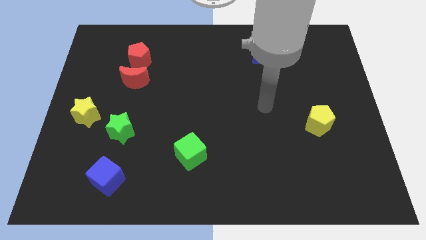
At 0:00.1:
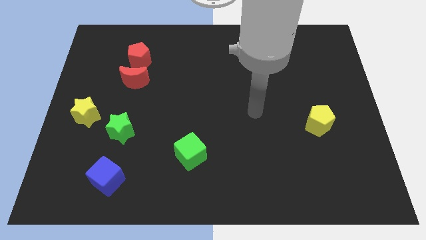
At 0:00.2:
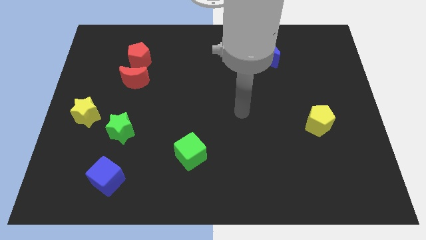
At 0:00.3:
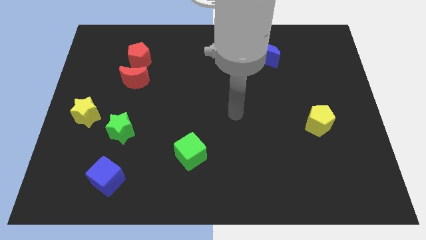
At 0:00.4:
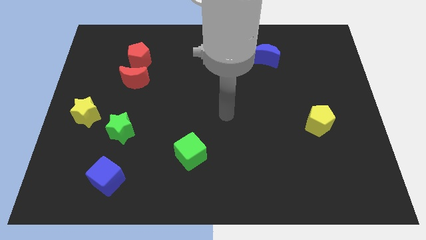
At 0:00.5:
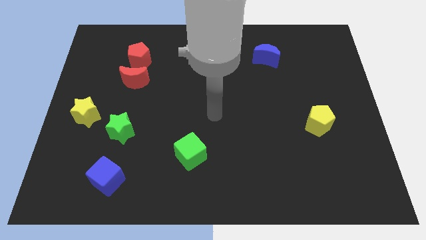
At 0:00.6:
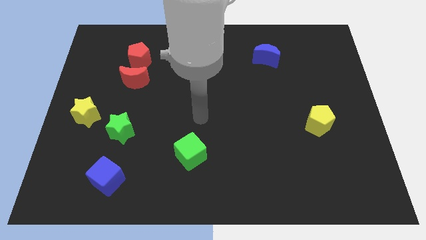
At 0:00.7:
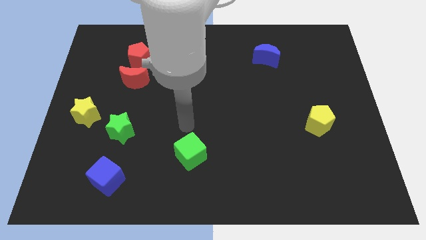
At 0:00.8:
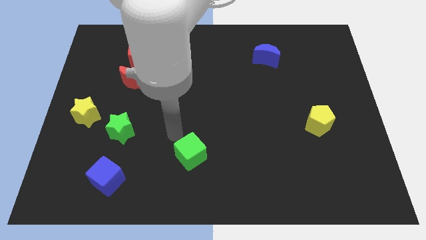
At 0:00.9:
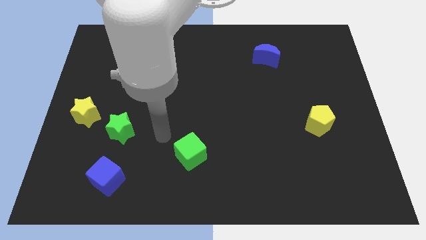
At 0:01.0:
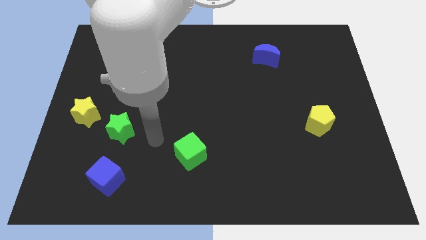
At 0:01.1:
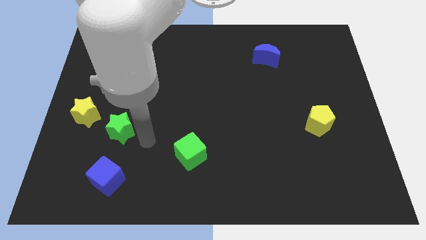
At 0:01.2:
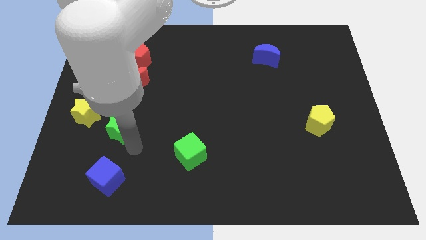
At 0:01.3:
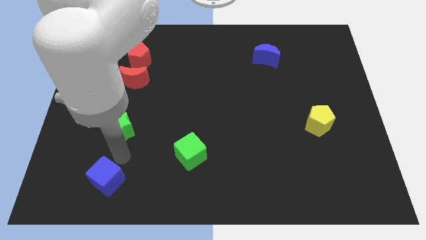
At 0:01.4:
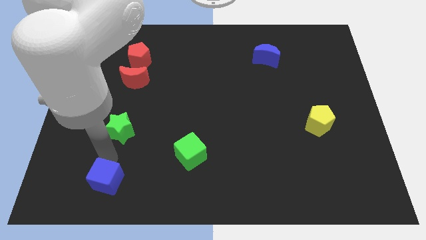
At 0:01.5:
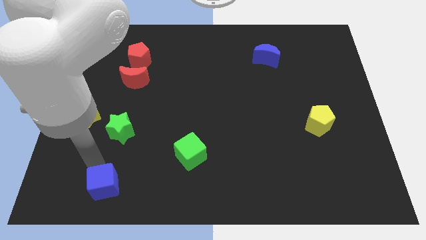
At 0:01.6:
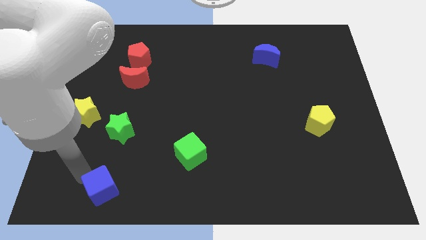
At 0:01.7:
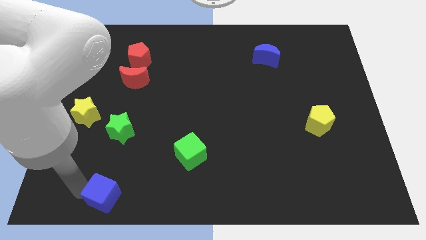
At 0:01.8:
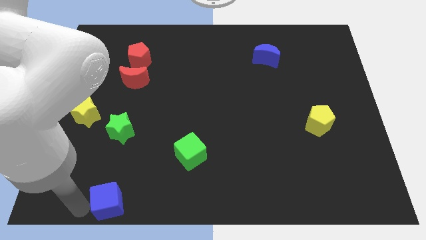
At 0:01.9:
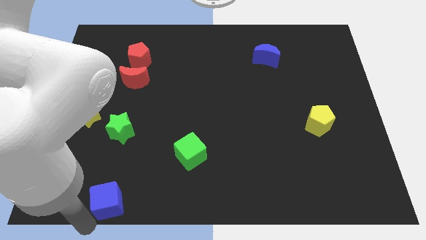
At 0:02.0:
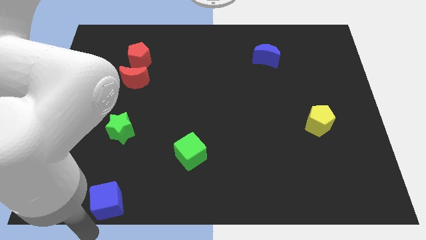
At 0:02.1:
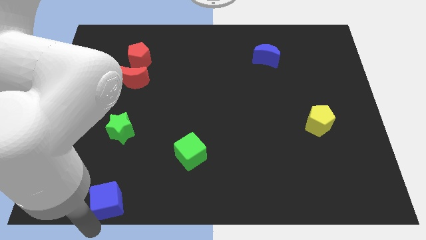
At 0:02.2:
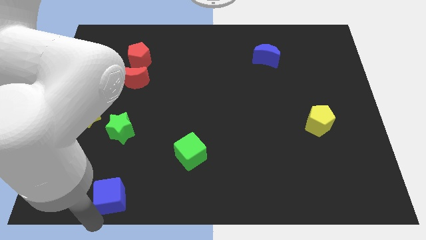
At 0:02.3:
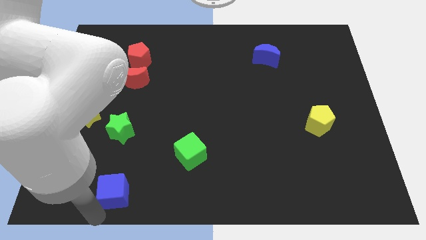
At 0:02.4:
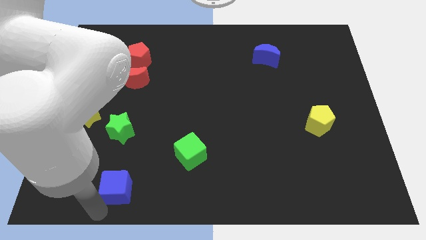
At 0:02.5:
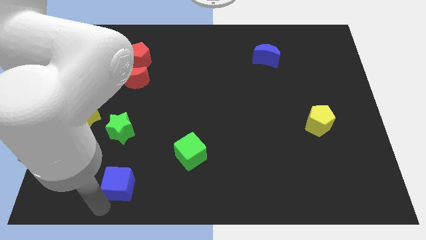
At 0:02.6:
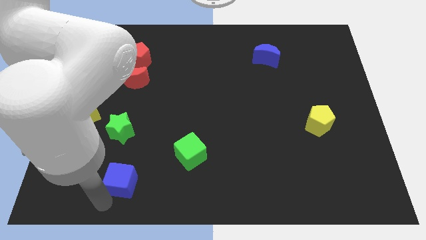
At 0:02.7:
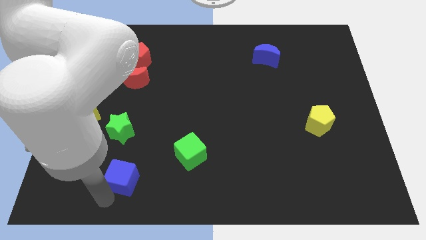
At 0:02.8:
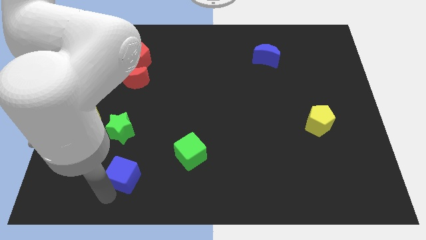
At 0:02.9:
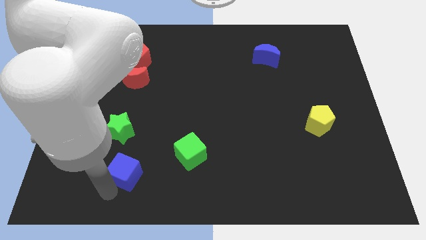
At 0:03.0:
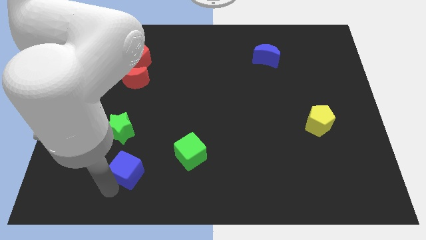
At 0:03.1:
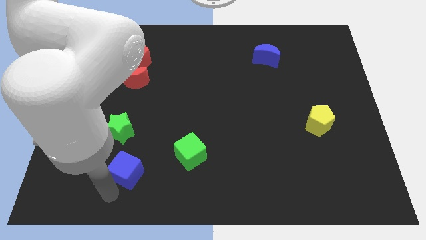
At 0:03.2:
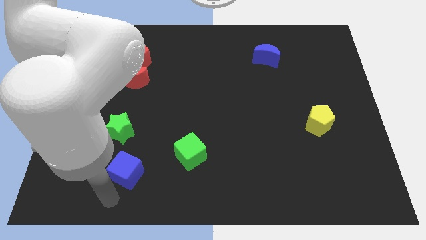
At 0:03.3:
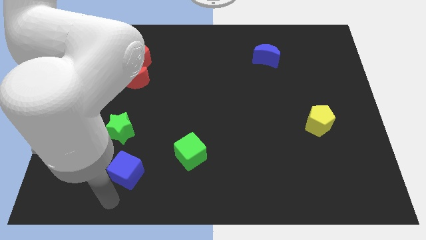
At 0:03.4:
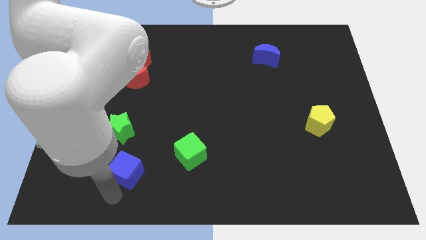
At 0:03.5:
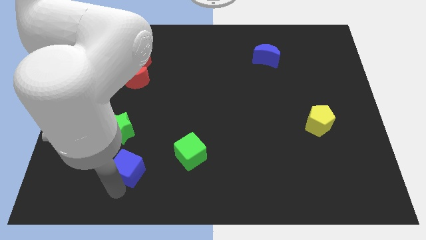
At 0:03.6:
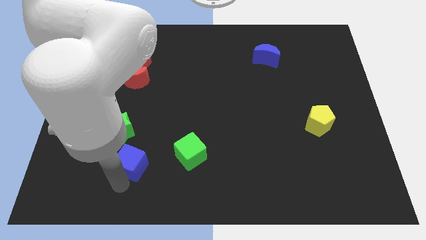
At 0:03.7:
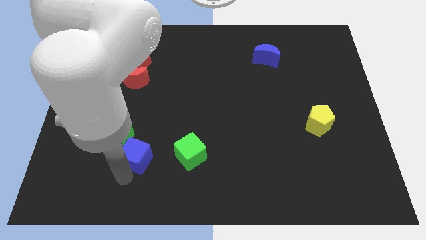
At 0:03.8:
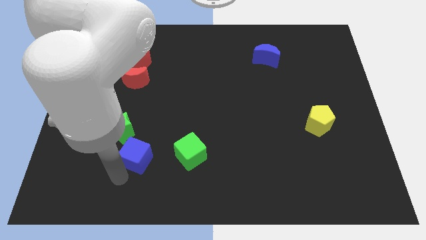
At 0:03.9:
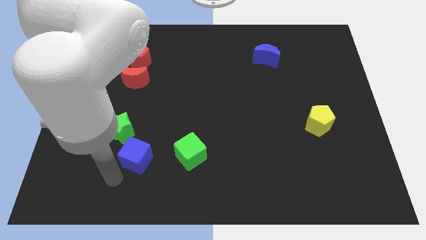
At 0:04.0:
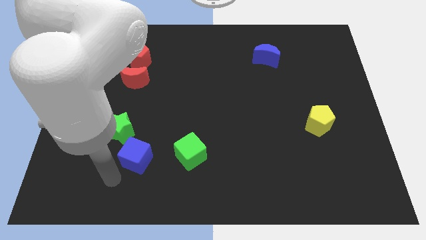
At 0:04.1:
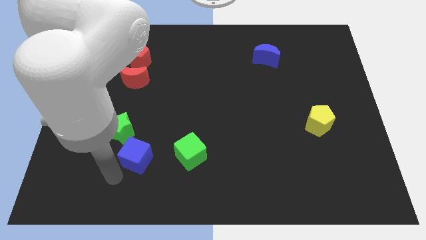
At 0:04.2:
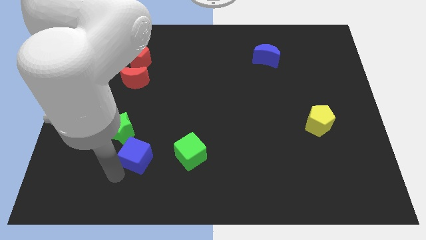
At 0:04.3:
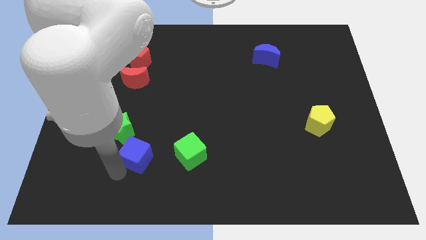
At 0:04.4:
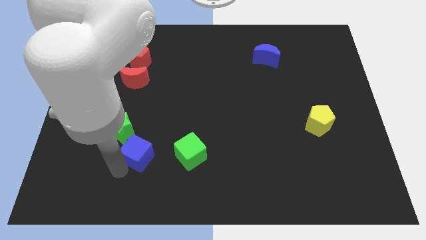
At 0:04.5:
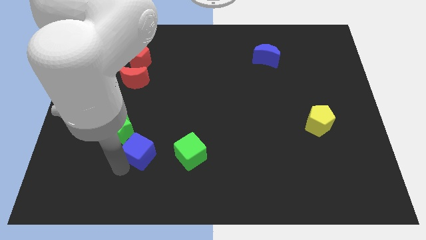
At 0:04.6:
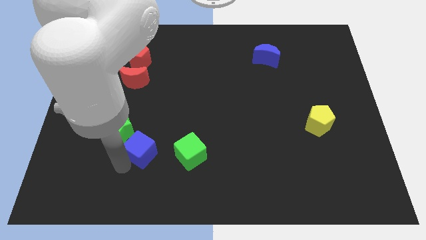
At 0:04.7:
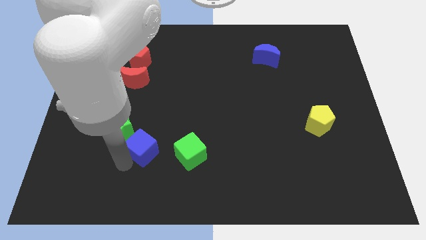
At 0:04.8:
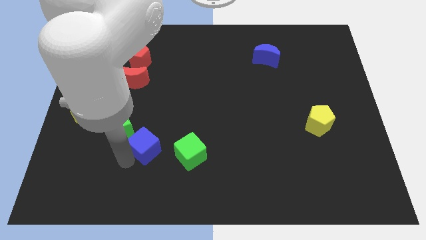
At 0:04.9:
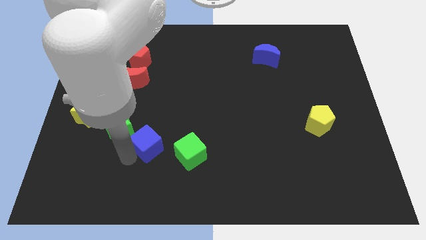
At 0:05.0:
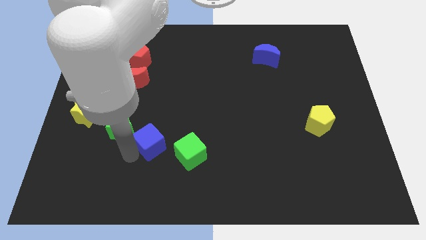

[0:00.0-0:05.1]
slide the blue cube to the top left of the green cube

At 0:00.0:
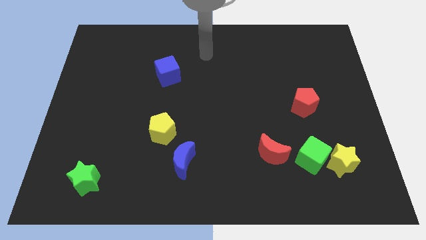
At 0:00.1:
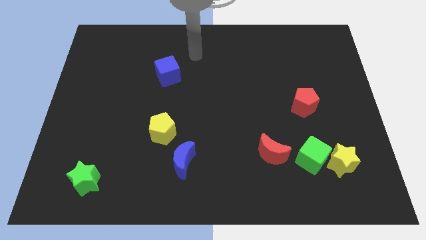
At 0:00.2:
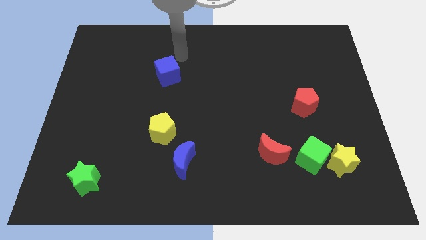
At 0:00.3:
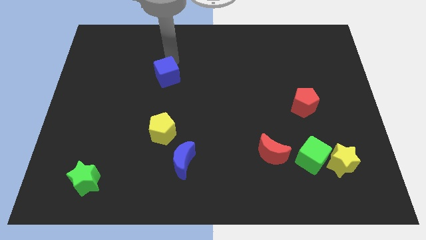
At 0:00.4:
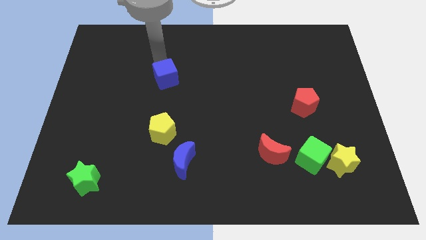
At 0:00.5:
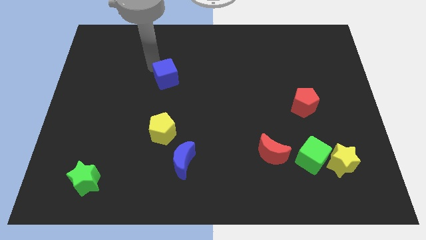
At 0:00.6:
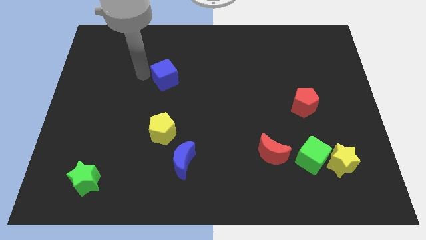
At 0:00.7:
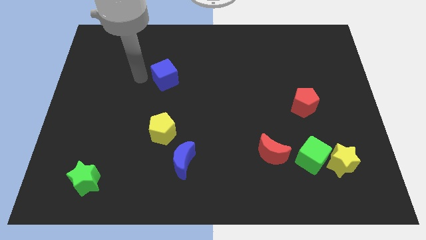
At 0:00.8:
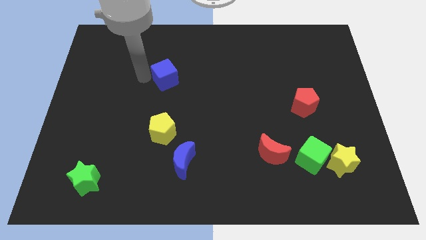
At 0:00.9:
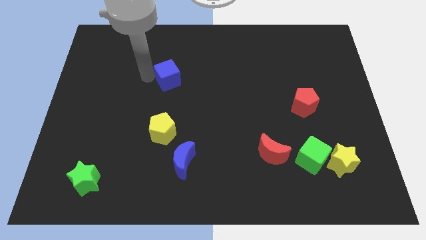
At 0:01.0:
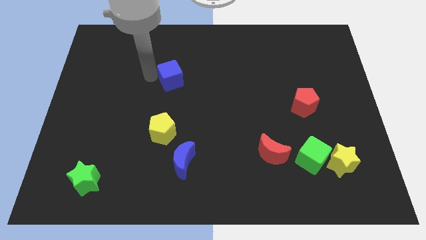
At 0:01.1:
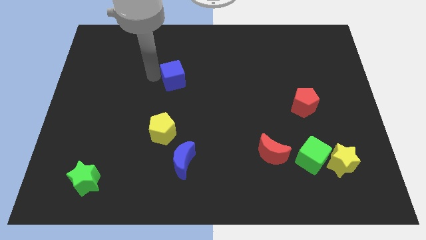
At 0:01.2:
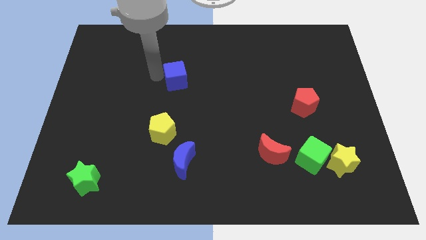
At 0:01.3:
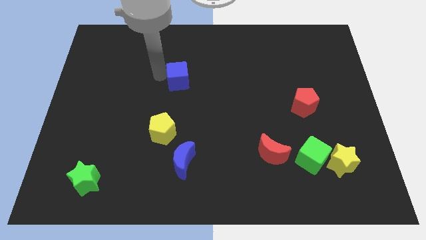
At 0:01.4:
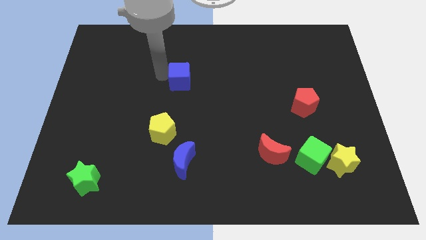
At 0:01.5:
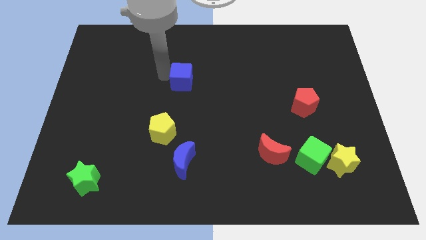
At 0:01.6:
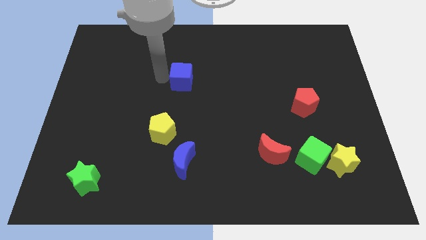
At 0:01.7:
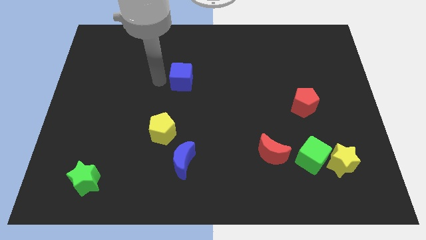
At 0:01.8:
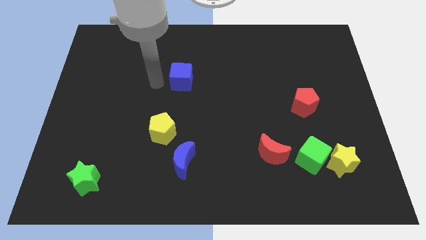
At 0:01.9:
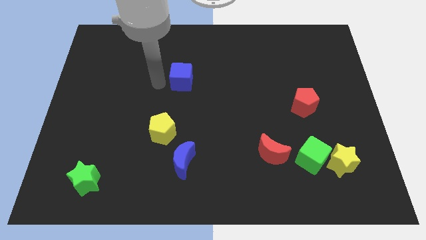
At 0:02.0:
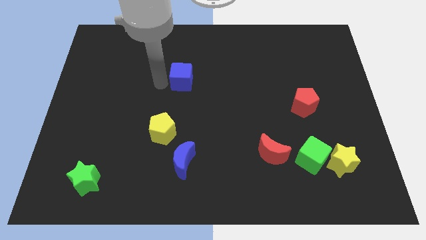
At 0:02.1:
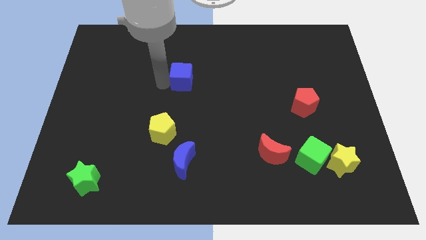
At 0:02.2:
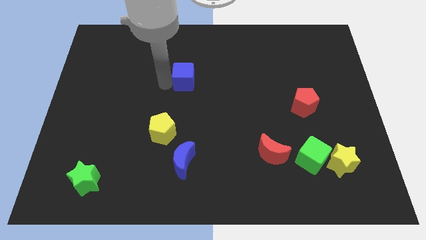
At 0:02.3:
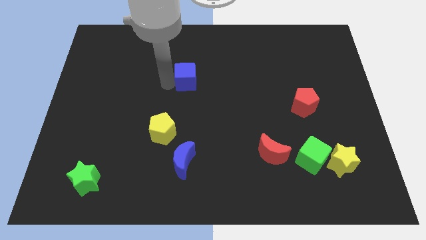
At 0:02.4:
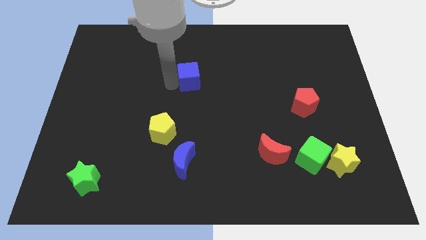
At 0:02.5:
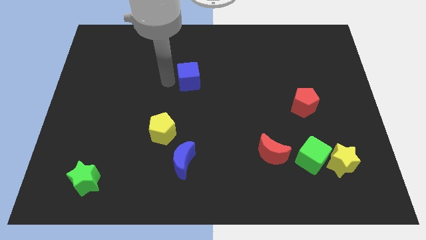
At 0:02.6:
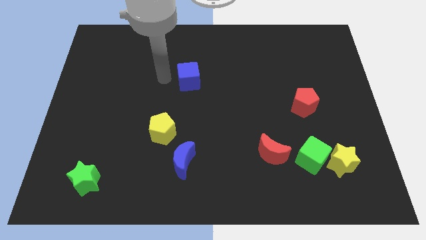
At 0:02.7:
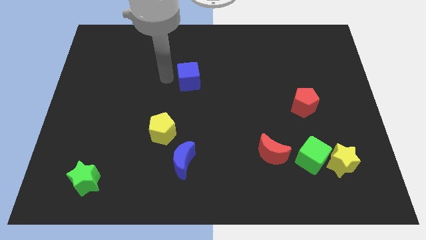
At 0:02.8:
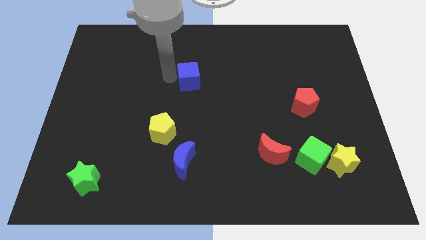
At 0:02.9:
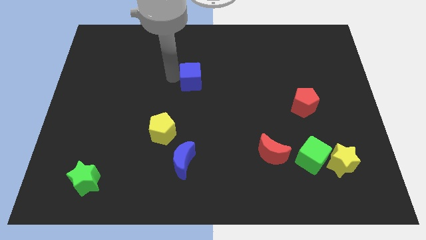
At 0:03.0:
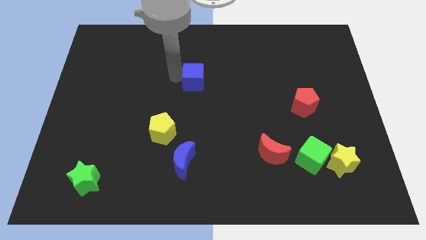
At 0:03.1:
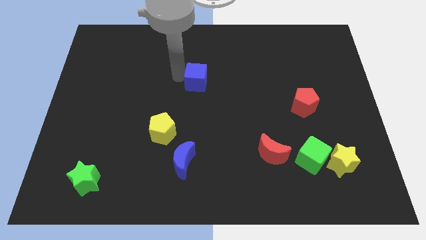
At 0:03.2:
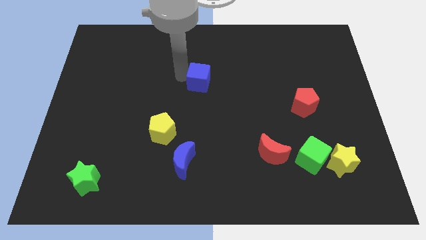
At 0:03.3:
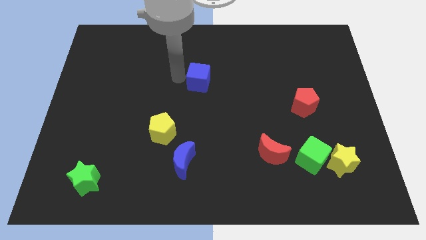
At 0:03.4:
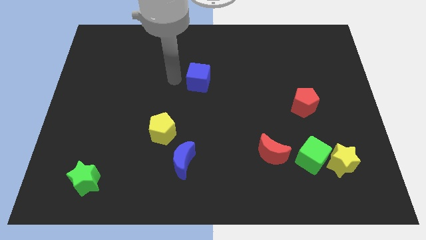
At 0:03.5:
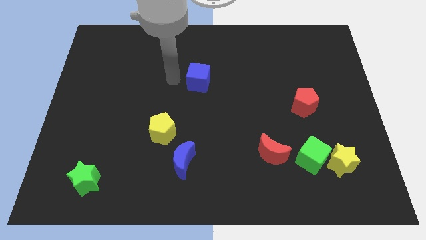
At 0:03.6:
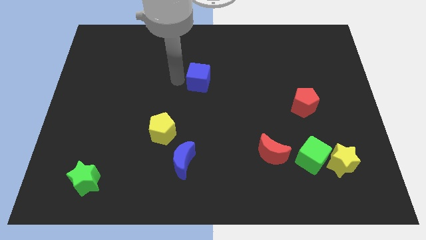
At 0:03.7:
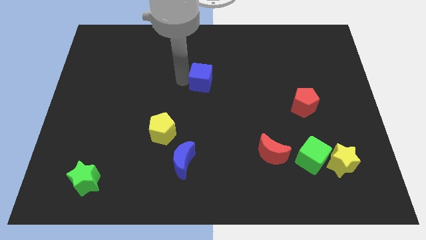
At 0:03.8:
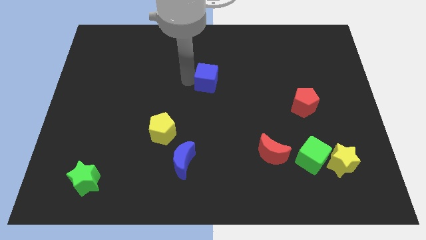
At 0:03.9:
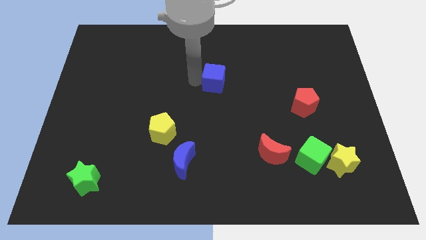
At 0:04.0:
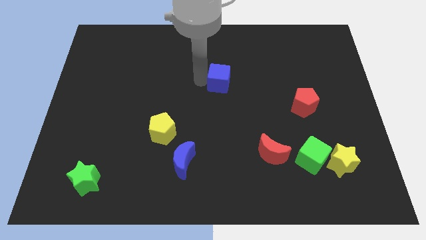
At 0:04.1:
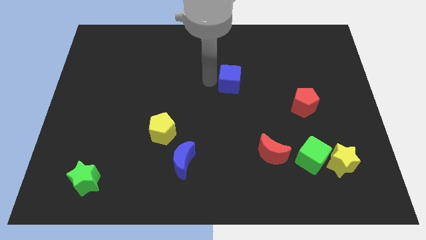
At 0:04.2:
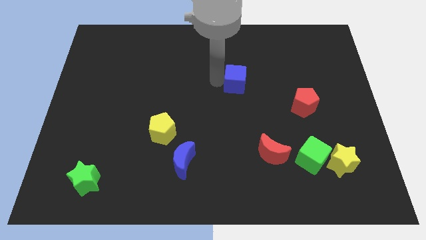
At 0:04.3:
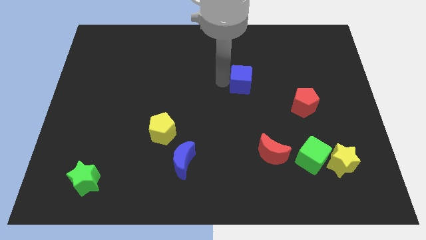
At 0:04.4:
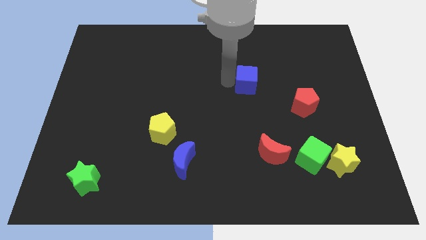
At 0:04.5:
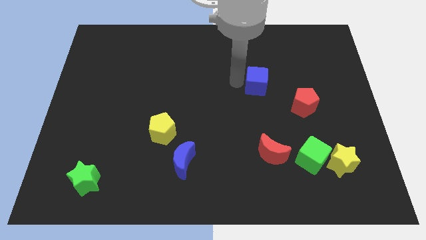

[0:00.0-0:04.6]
push the blue cube to the top left side of the red pentagon
